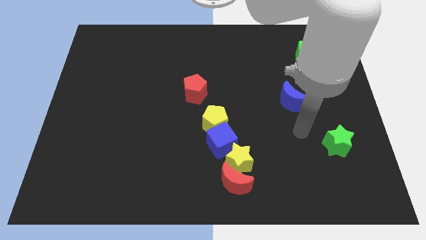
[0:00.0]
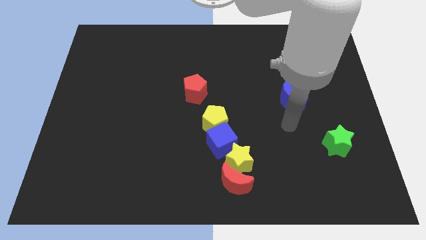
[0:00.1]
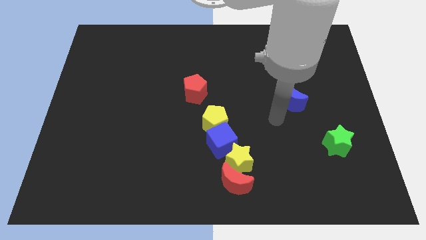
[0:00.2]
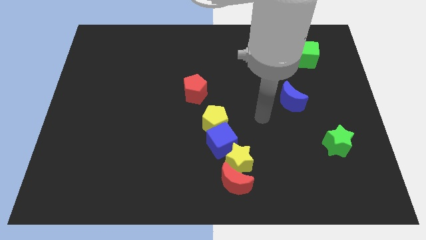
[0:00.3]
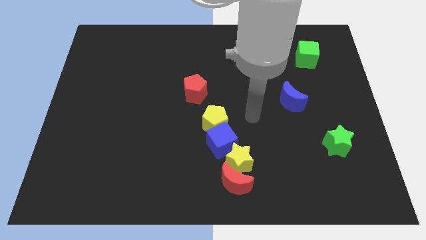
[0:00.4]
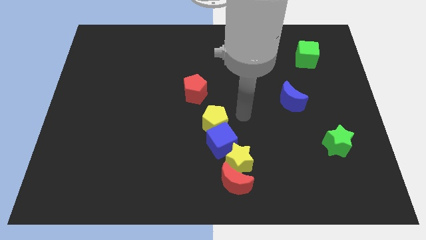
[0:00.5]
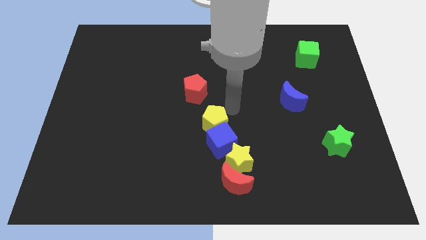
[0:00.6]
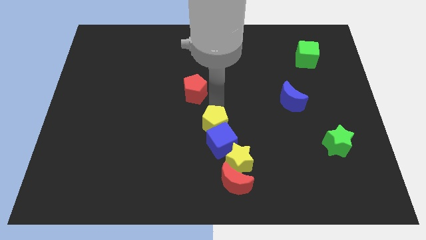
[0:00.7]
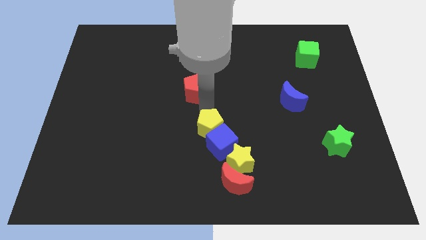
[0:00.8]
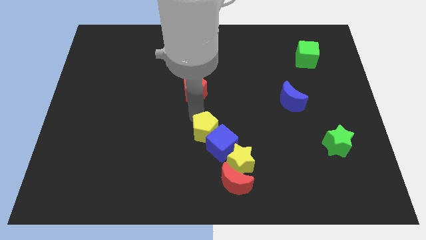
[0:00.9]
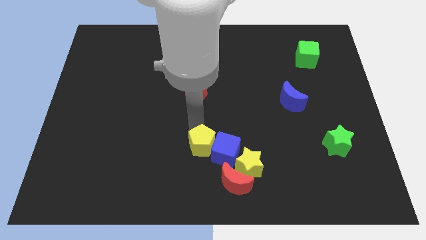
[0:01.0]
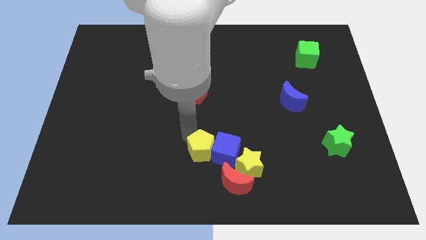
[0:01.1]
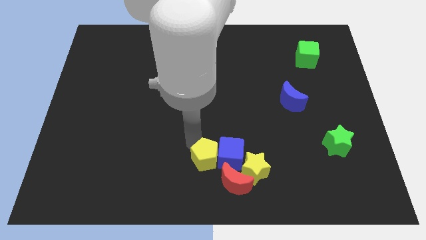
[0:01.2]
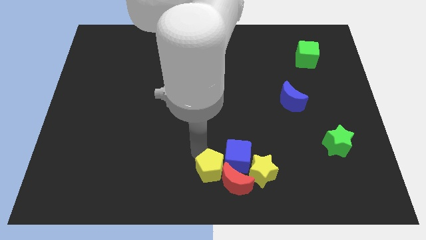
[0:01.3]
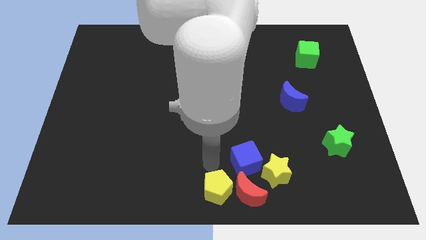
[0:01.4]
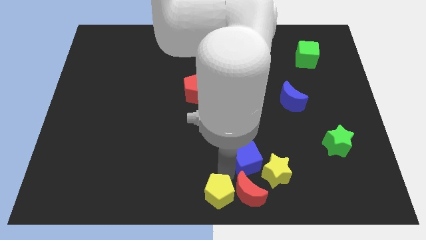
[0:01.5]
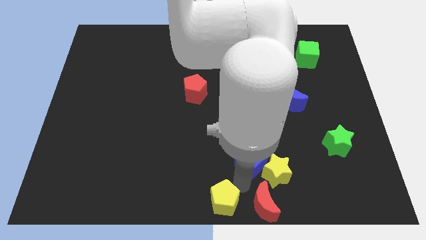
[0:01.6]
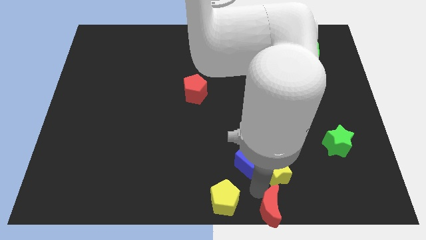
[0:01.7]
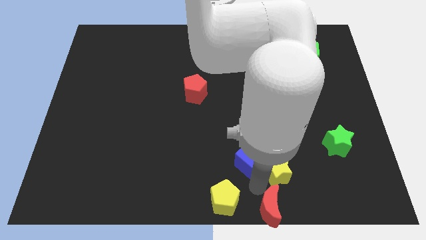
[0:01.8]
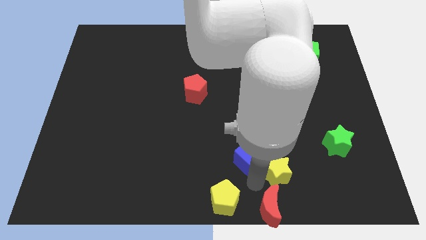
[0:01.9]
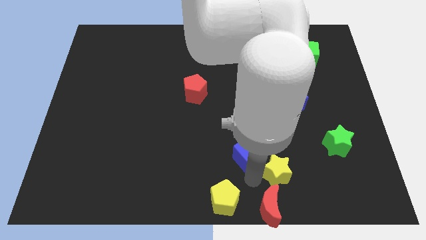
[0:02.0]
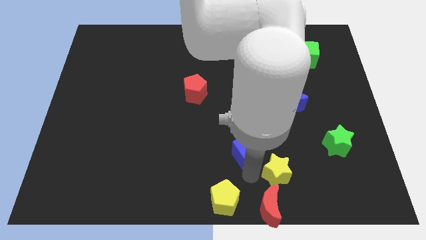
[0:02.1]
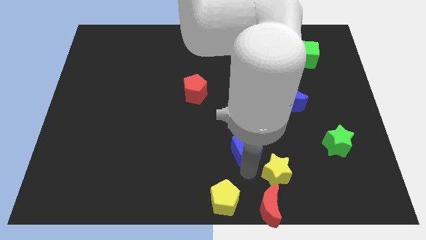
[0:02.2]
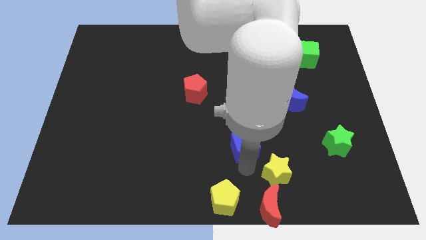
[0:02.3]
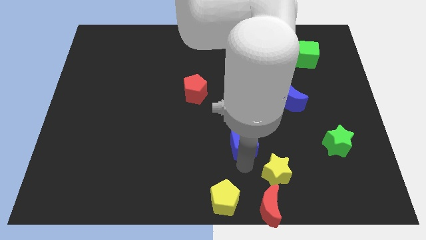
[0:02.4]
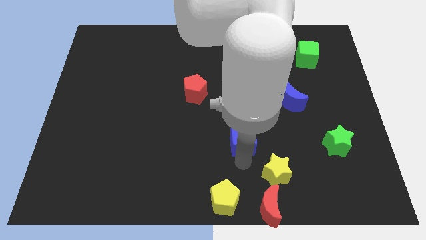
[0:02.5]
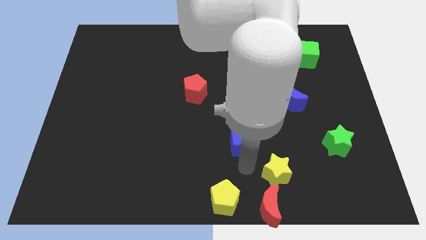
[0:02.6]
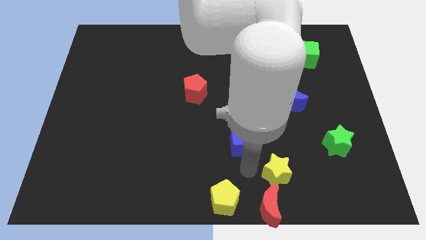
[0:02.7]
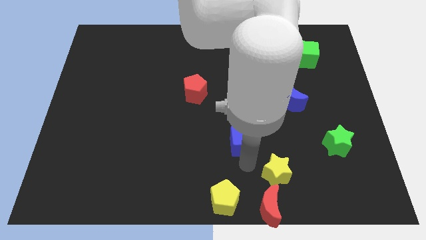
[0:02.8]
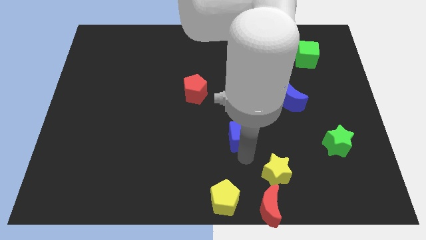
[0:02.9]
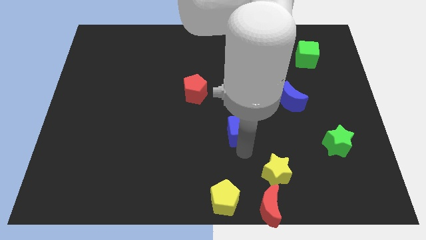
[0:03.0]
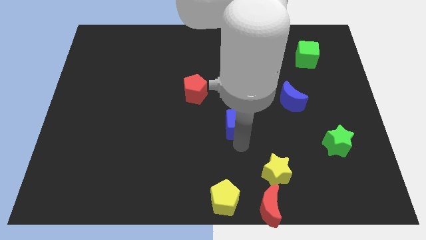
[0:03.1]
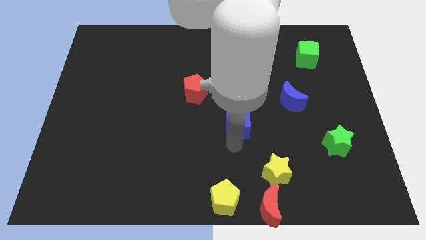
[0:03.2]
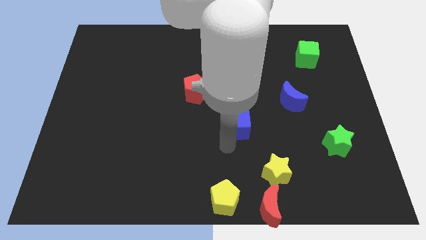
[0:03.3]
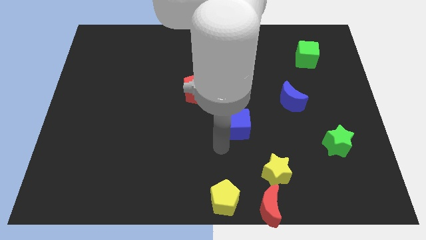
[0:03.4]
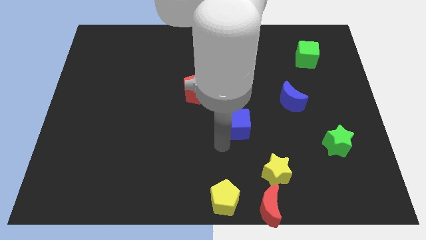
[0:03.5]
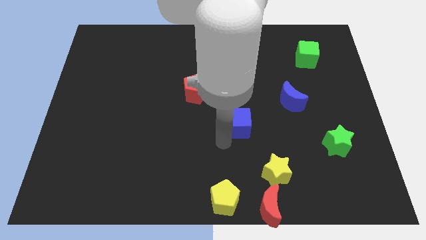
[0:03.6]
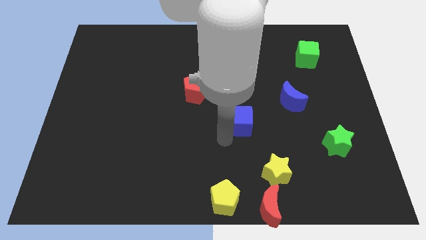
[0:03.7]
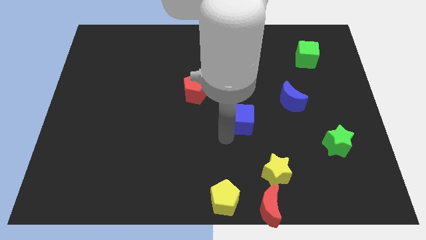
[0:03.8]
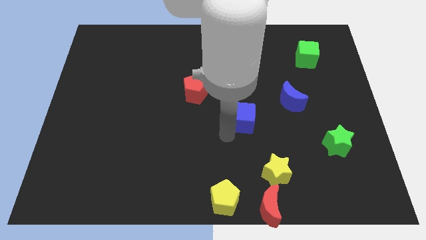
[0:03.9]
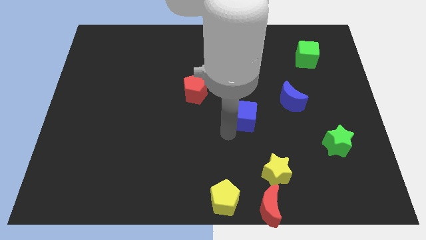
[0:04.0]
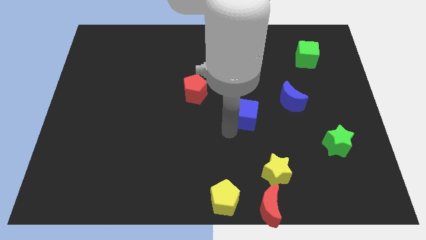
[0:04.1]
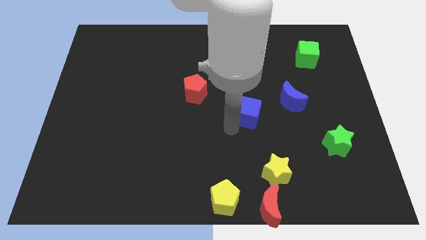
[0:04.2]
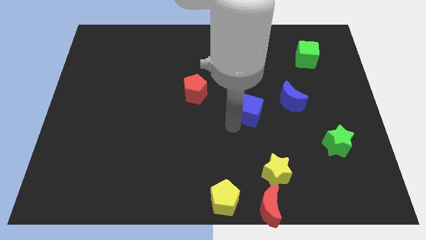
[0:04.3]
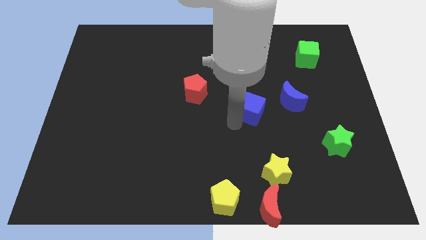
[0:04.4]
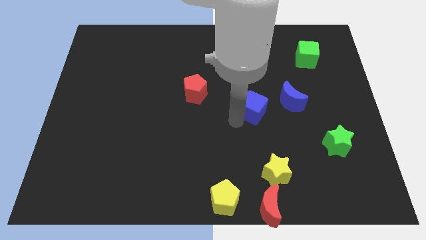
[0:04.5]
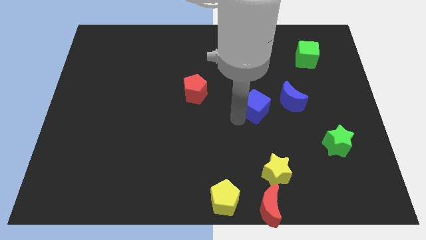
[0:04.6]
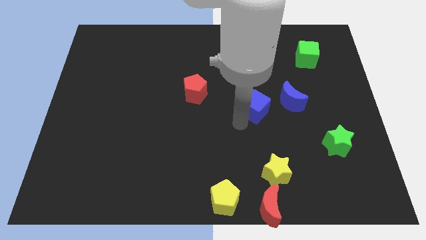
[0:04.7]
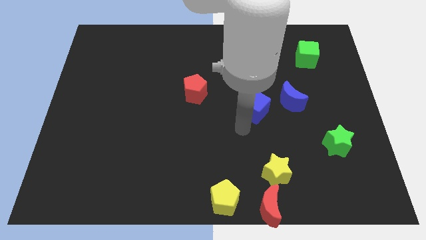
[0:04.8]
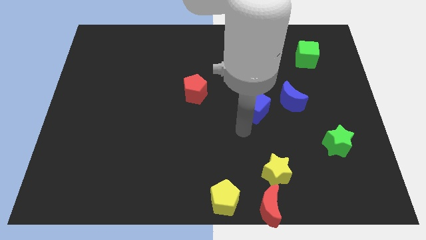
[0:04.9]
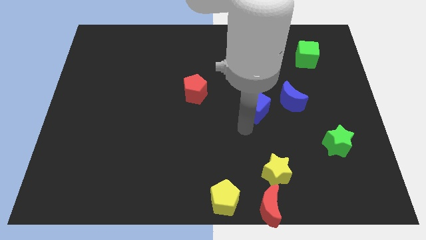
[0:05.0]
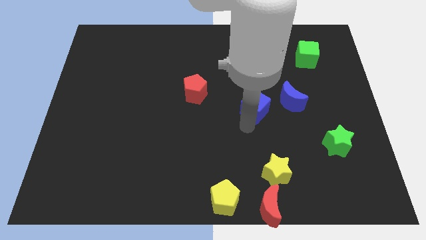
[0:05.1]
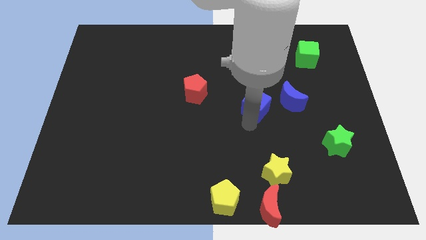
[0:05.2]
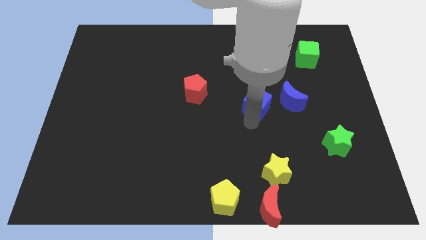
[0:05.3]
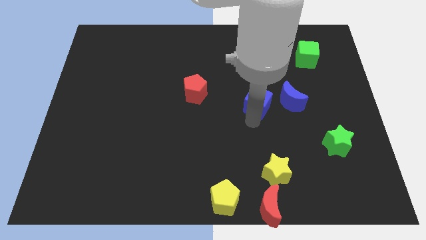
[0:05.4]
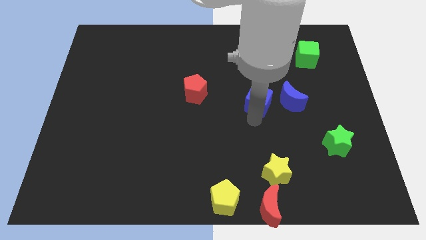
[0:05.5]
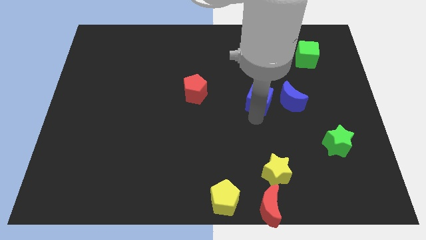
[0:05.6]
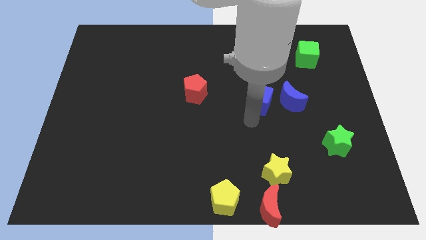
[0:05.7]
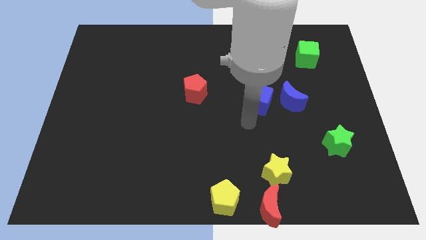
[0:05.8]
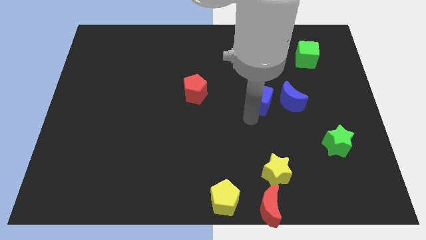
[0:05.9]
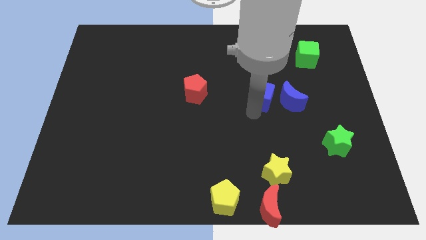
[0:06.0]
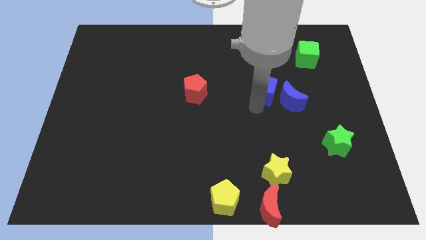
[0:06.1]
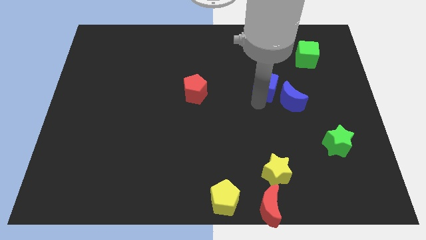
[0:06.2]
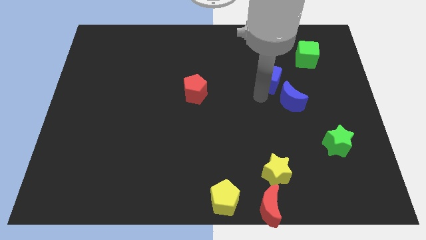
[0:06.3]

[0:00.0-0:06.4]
push the blue cube to the top side of the blue moon

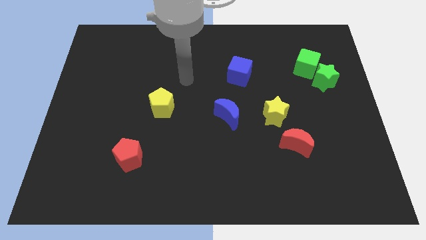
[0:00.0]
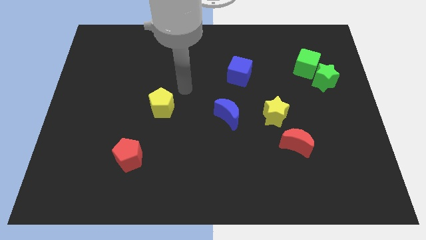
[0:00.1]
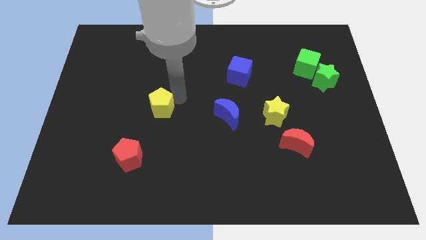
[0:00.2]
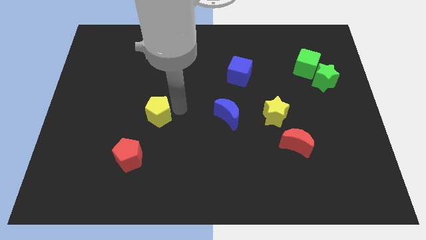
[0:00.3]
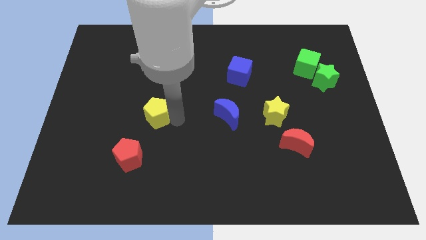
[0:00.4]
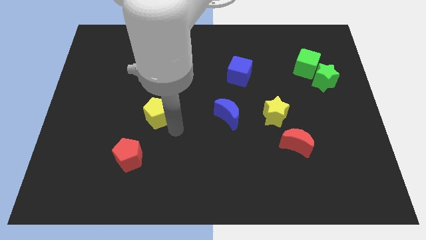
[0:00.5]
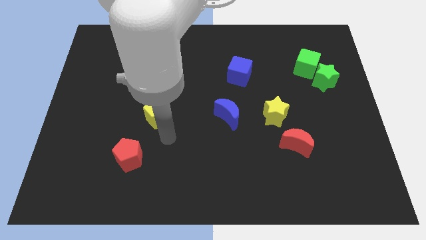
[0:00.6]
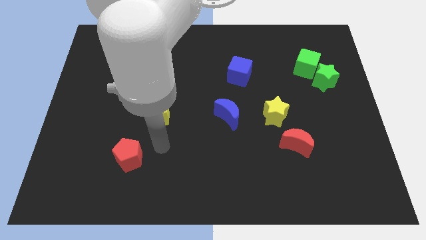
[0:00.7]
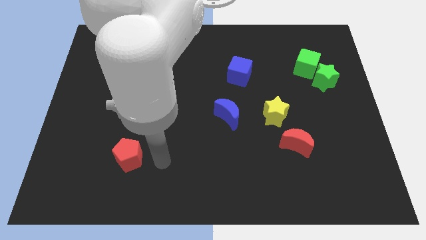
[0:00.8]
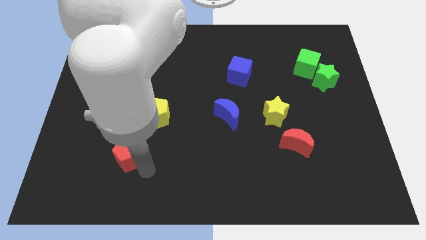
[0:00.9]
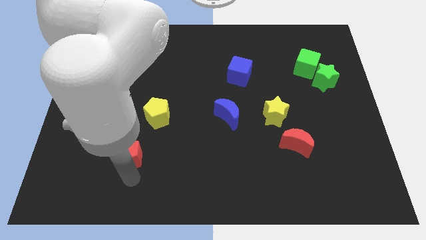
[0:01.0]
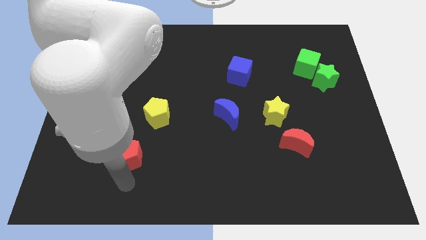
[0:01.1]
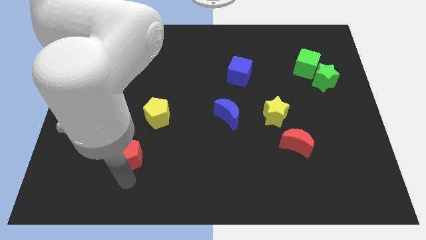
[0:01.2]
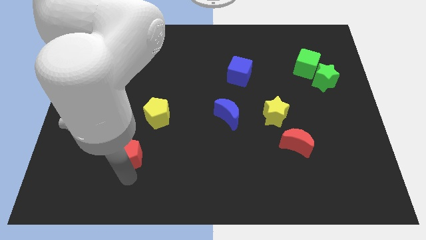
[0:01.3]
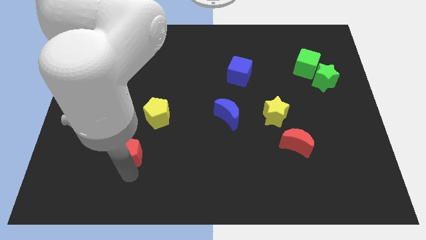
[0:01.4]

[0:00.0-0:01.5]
put the red pentagon to the bottom left side of the yellow pentagon
